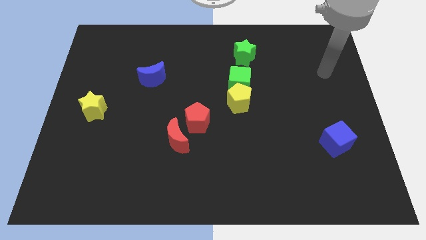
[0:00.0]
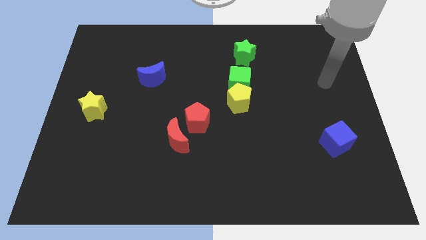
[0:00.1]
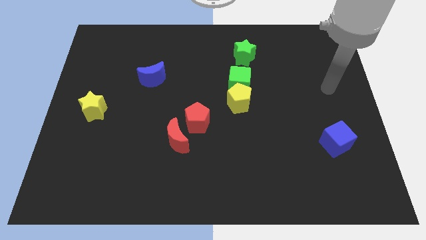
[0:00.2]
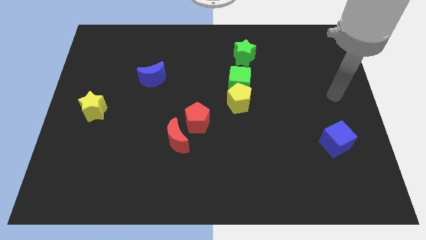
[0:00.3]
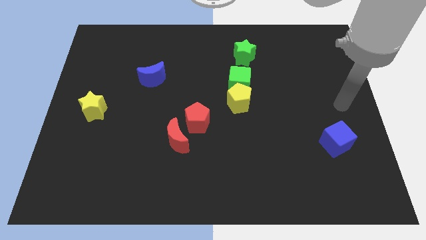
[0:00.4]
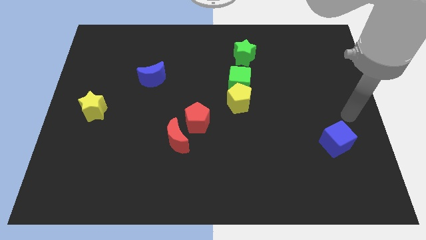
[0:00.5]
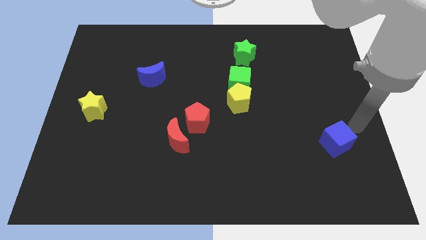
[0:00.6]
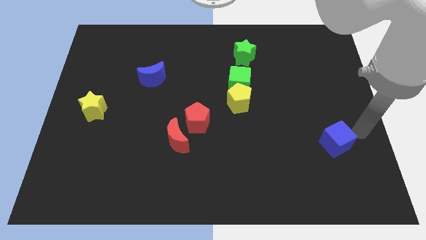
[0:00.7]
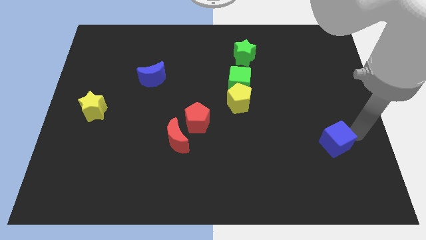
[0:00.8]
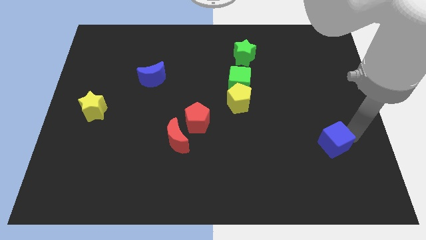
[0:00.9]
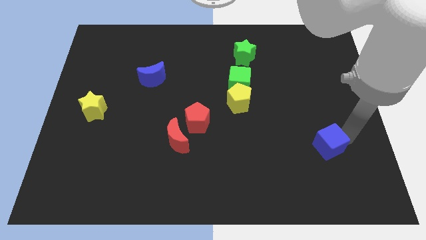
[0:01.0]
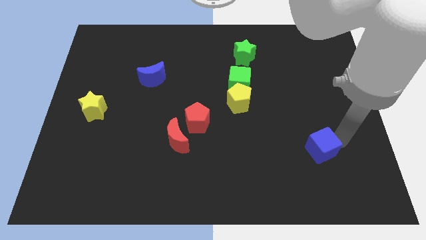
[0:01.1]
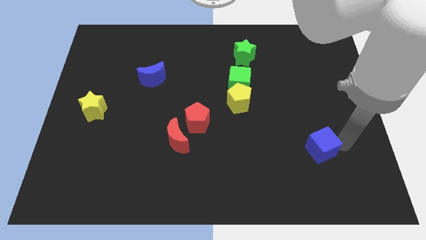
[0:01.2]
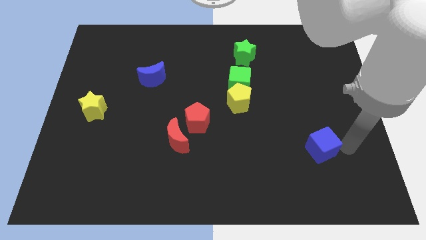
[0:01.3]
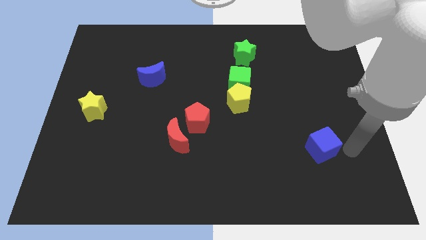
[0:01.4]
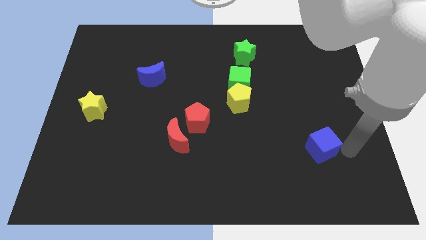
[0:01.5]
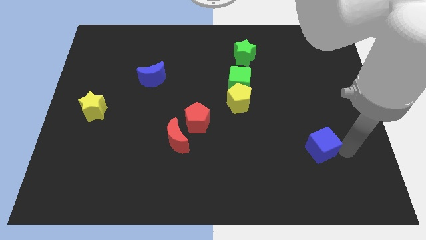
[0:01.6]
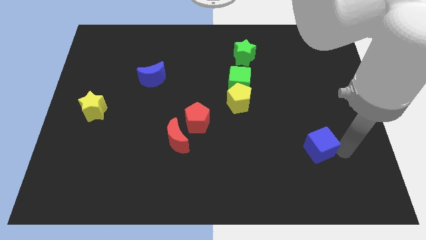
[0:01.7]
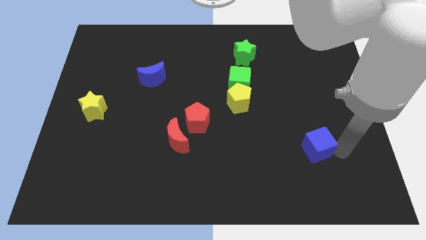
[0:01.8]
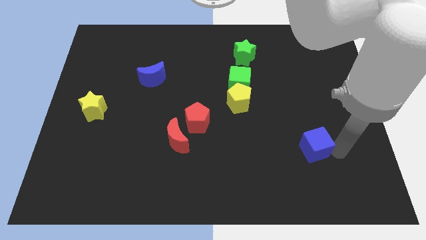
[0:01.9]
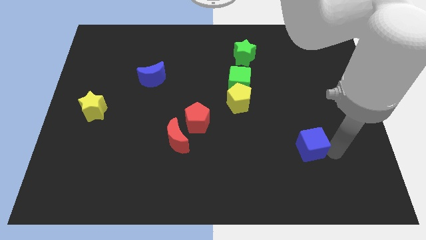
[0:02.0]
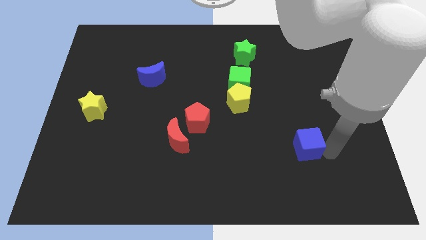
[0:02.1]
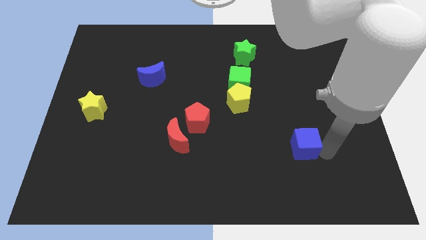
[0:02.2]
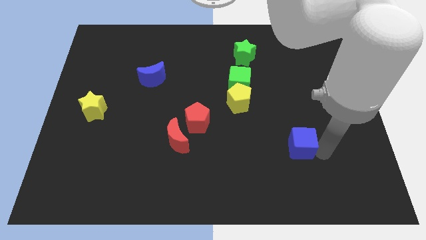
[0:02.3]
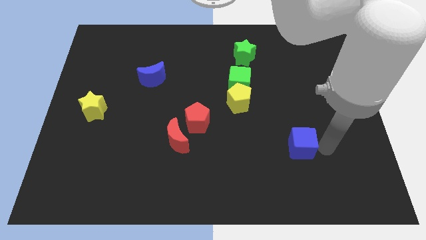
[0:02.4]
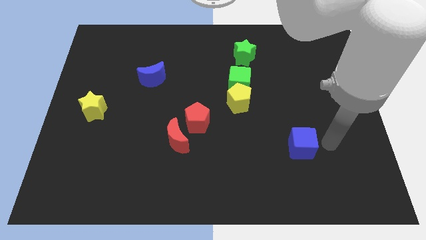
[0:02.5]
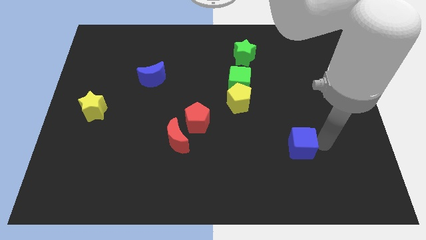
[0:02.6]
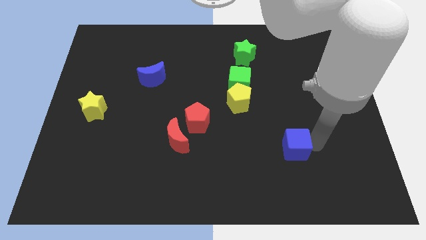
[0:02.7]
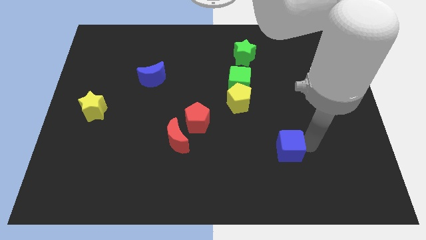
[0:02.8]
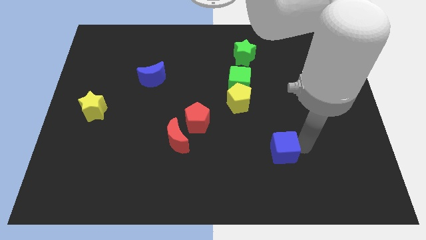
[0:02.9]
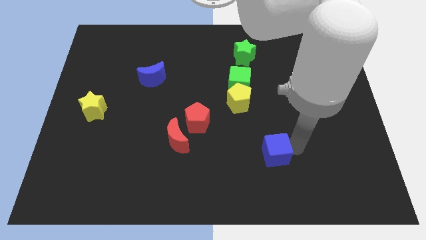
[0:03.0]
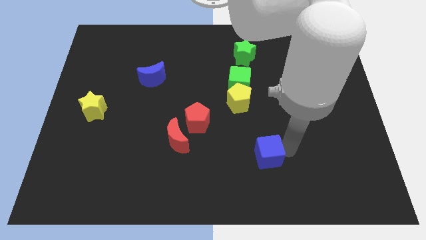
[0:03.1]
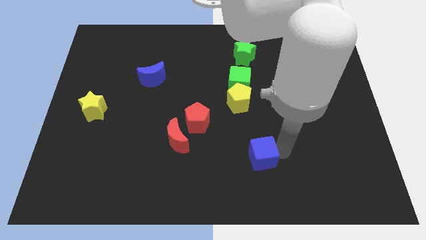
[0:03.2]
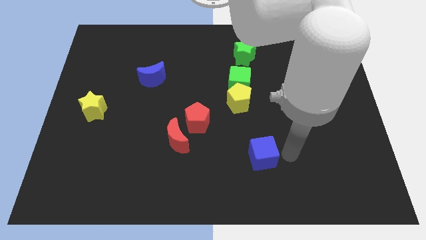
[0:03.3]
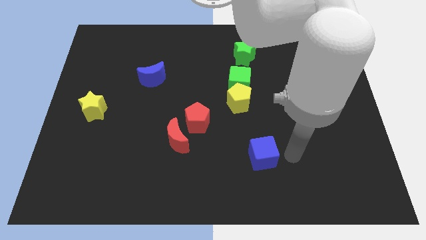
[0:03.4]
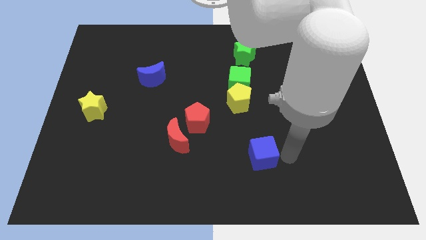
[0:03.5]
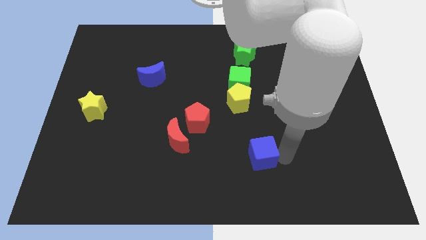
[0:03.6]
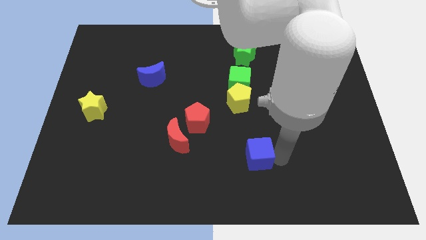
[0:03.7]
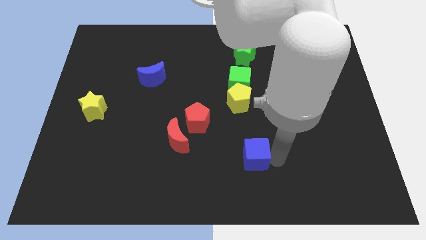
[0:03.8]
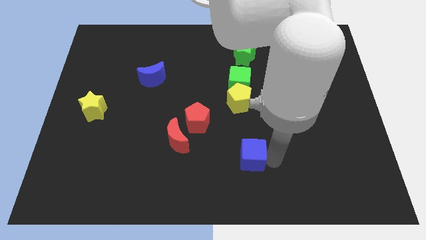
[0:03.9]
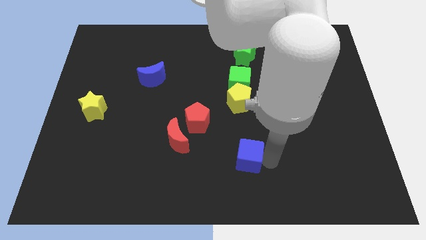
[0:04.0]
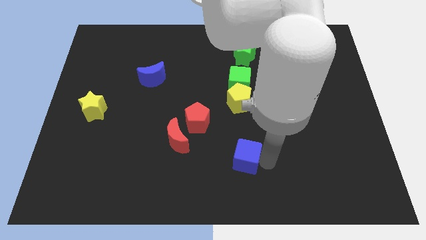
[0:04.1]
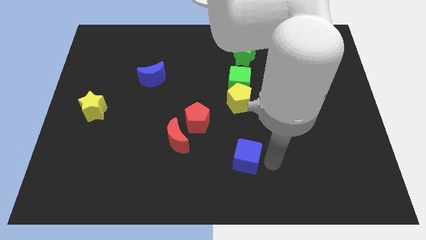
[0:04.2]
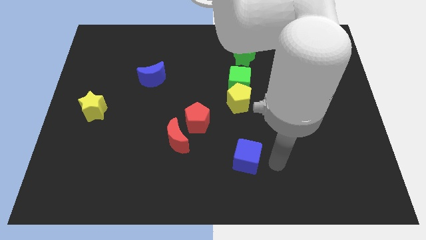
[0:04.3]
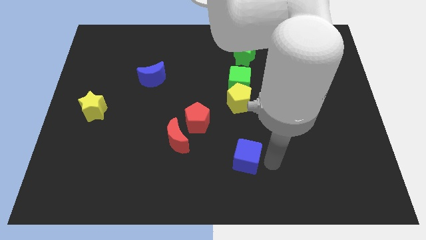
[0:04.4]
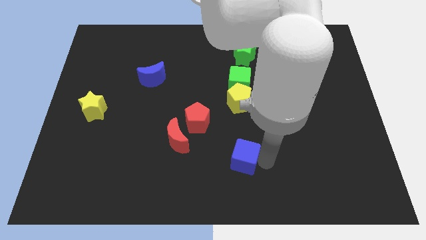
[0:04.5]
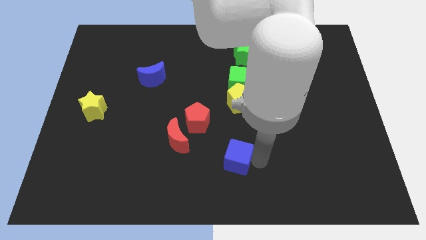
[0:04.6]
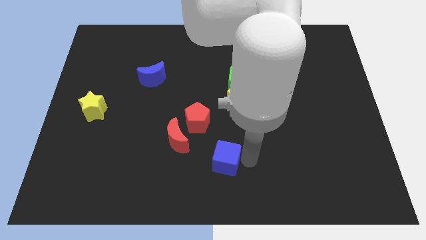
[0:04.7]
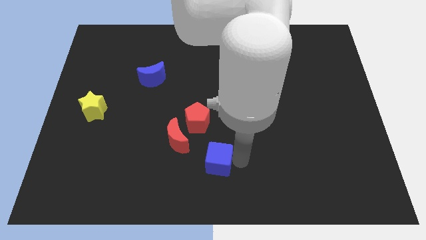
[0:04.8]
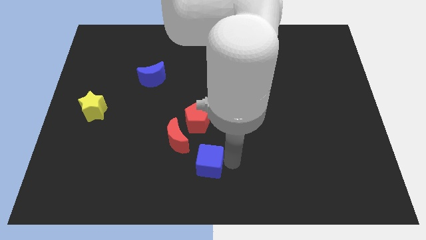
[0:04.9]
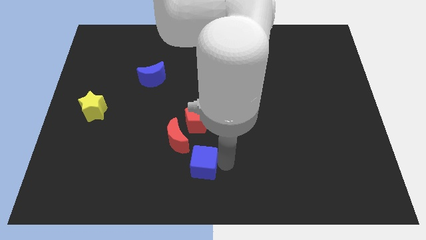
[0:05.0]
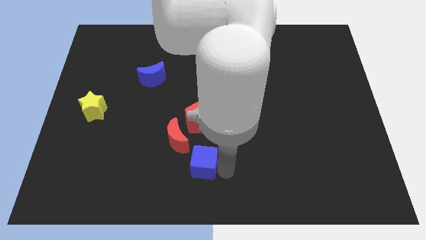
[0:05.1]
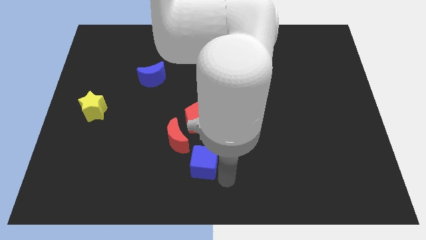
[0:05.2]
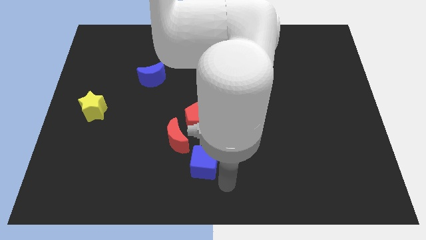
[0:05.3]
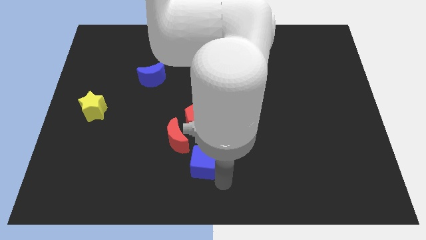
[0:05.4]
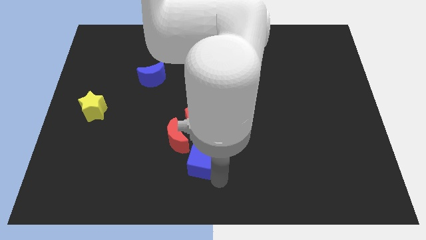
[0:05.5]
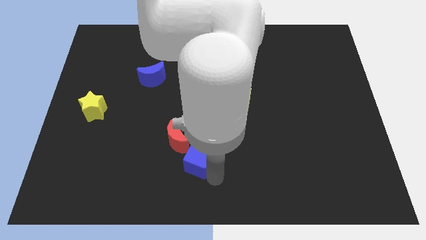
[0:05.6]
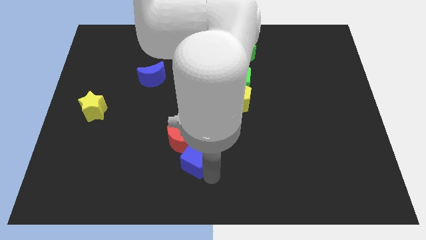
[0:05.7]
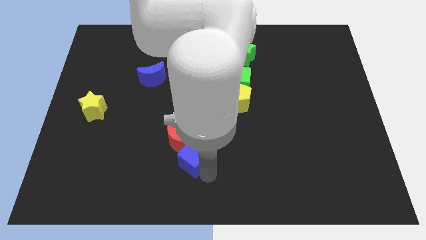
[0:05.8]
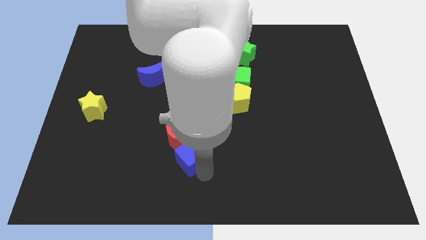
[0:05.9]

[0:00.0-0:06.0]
slide the blue cube to the red moon
